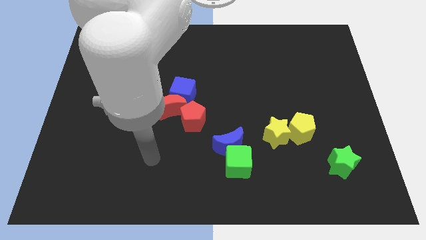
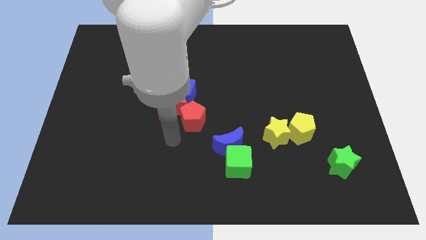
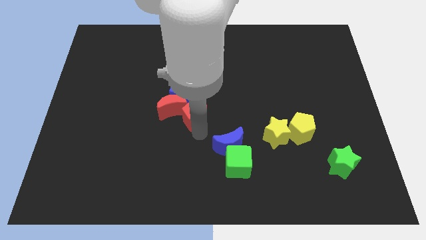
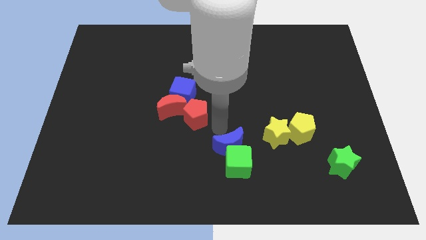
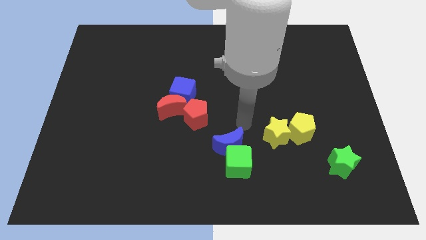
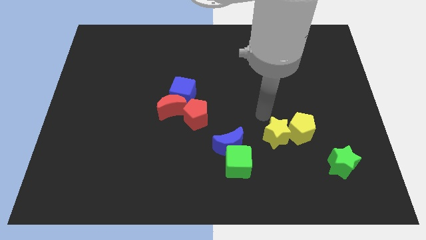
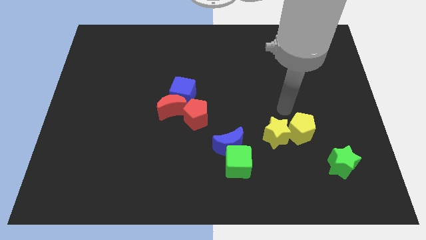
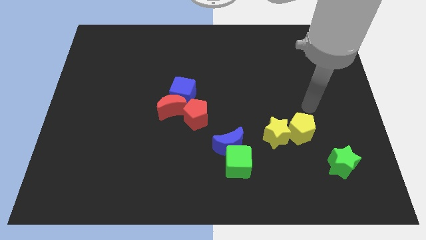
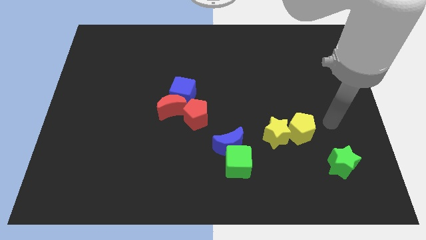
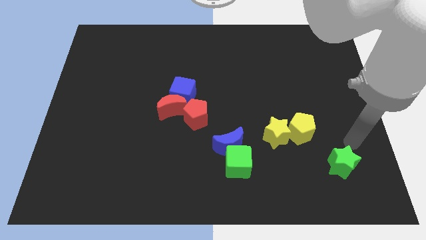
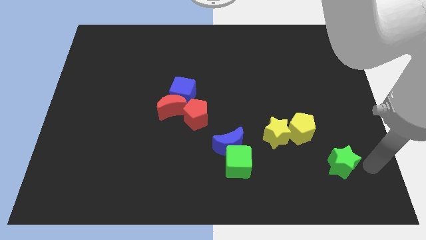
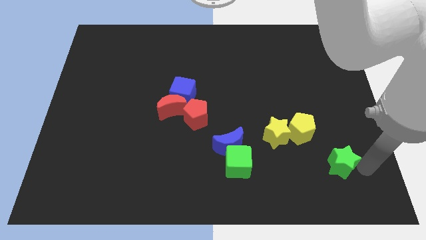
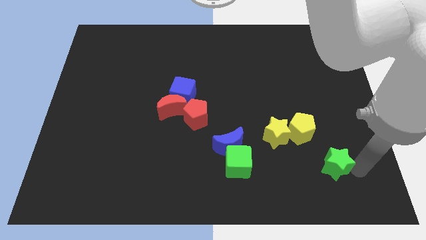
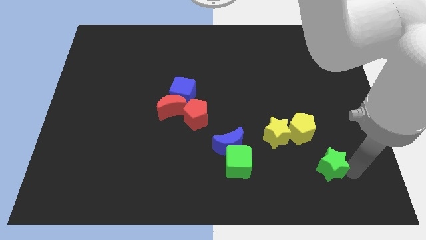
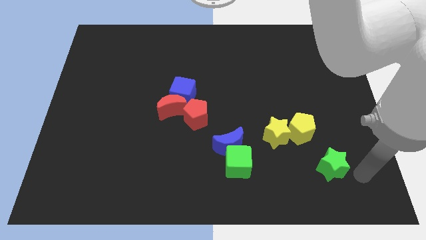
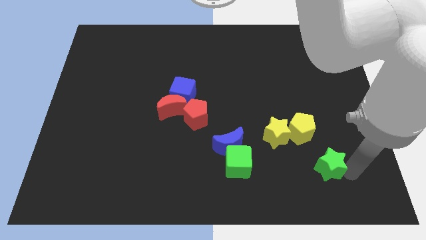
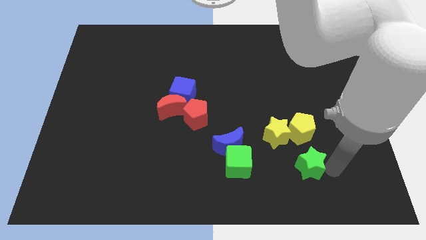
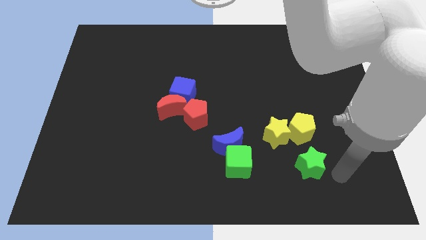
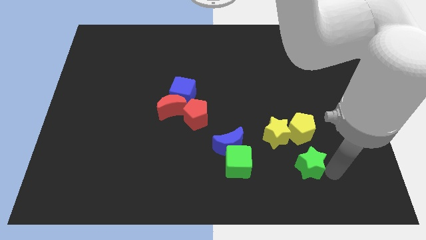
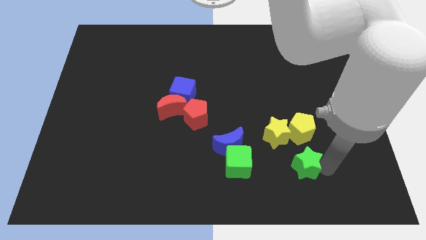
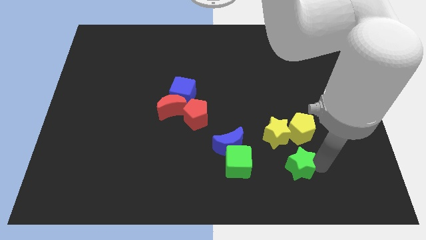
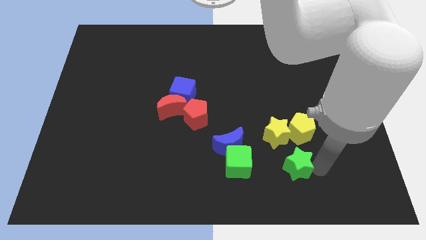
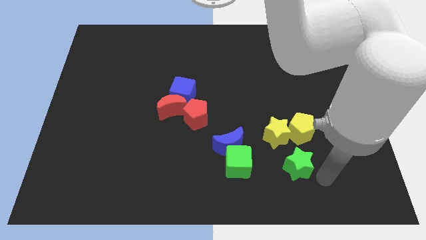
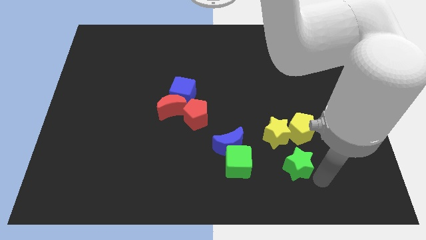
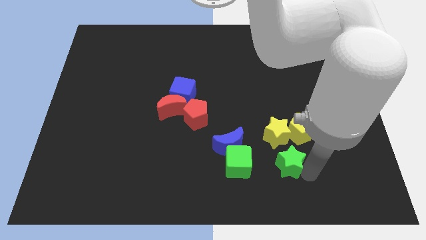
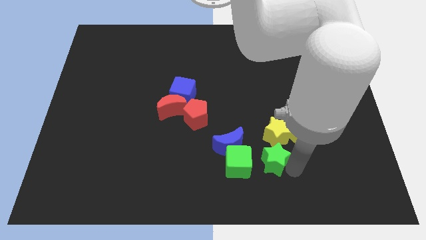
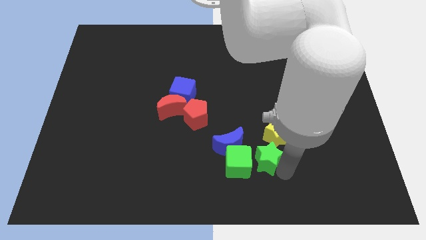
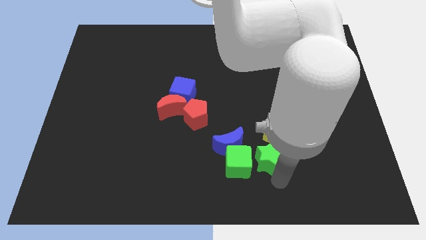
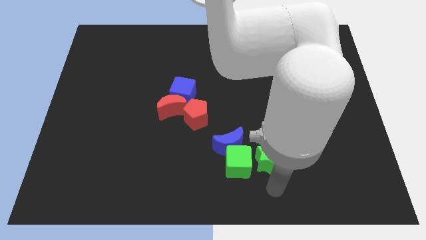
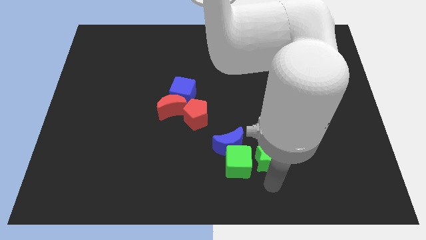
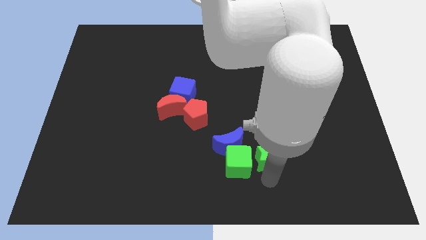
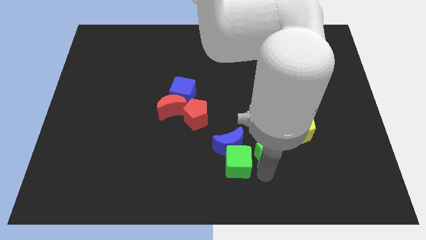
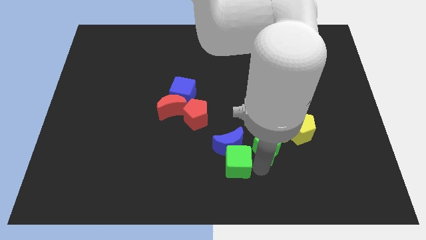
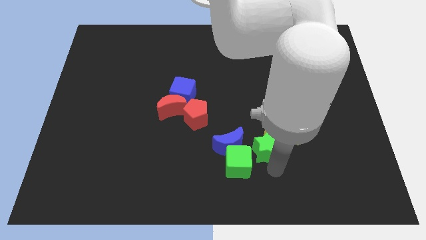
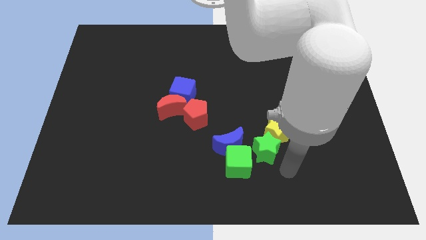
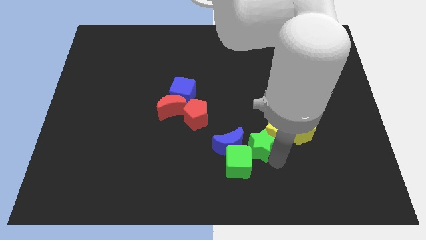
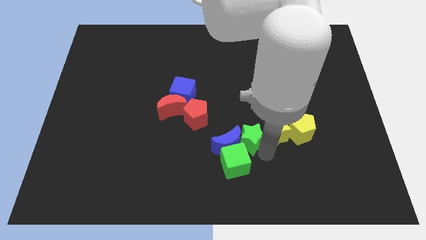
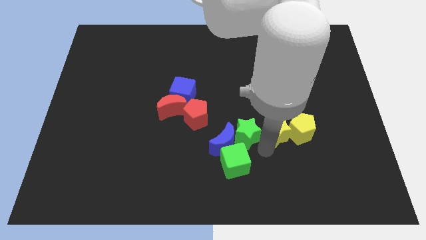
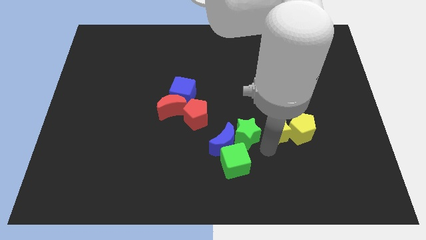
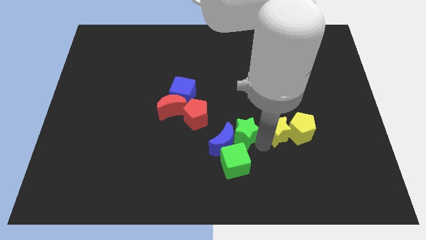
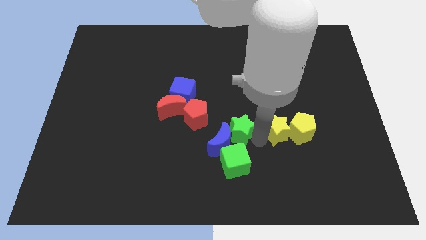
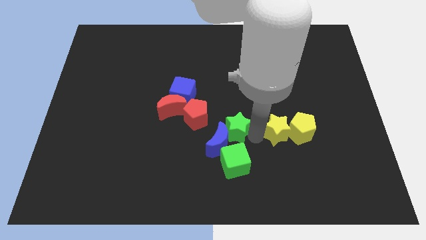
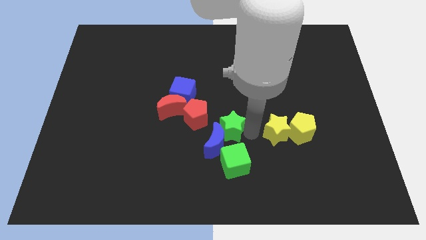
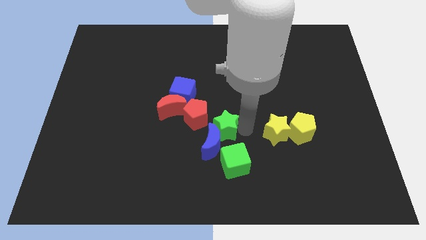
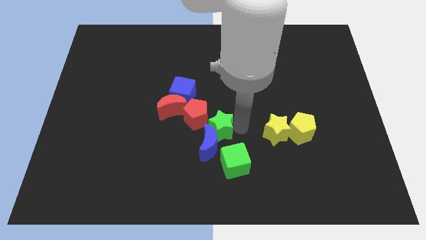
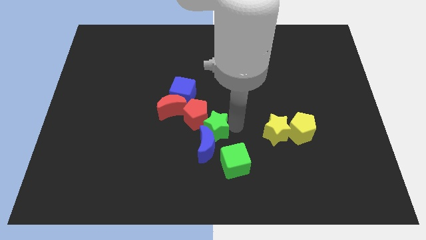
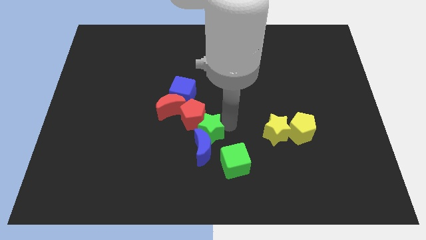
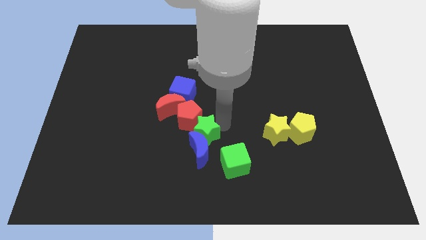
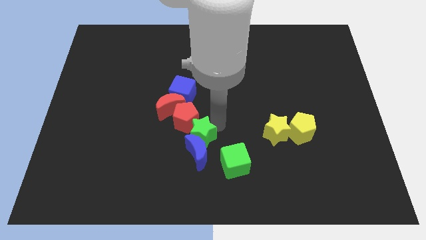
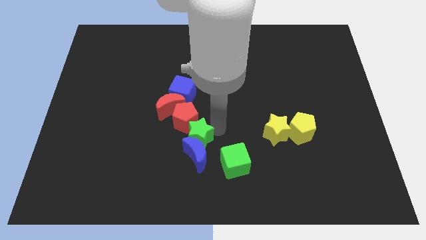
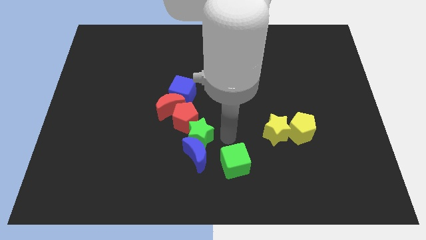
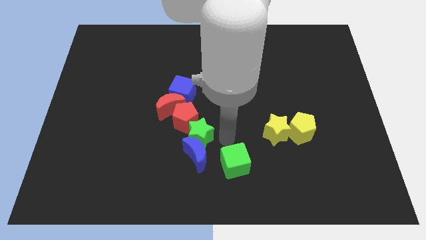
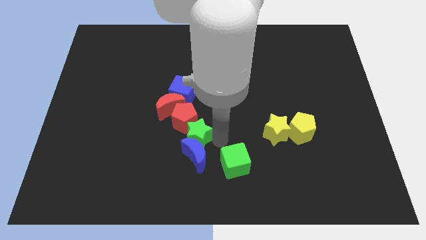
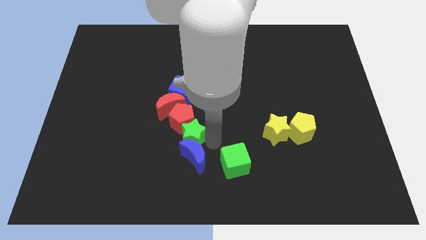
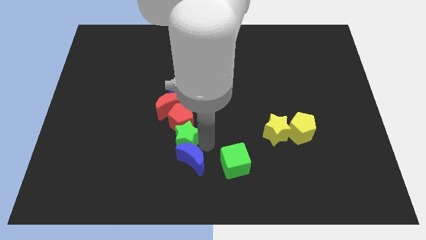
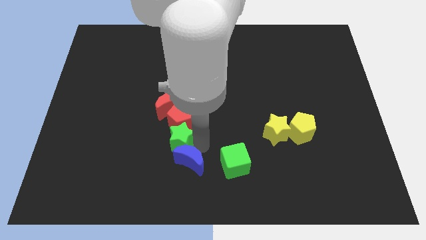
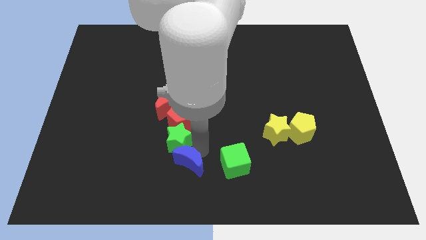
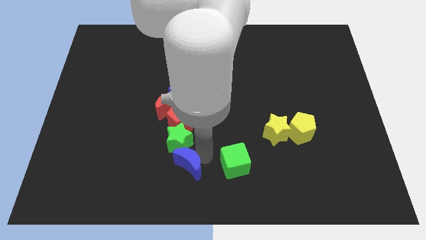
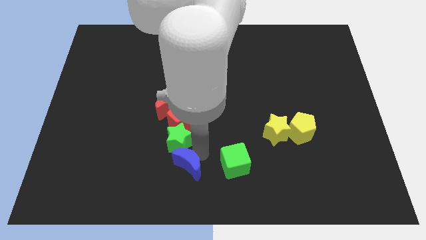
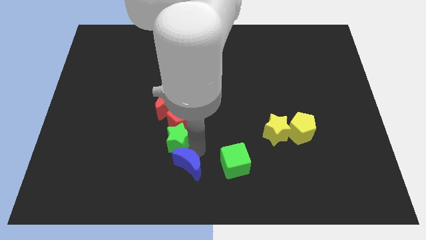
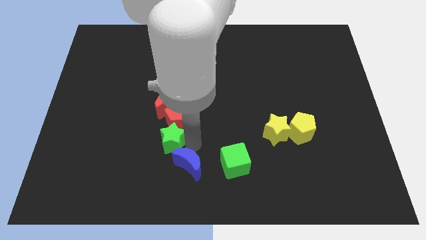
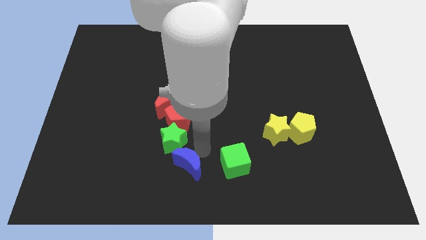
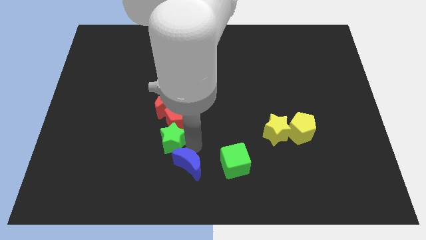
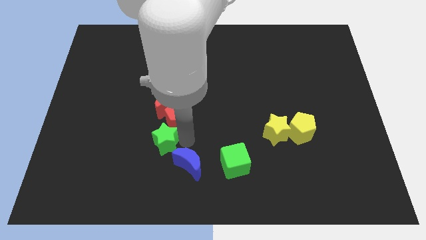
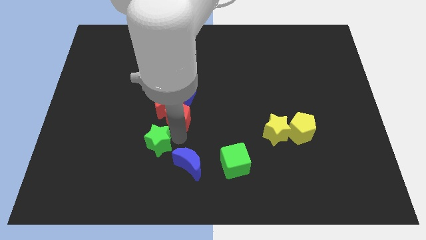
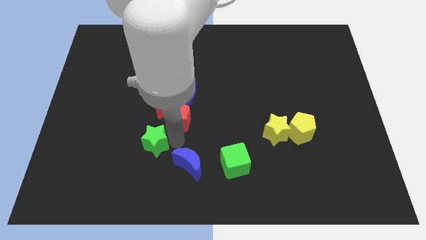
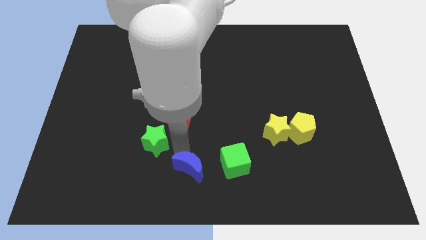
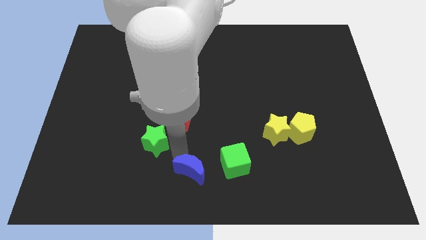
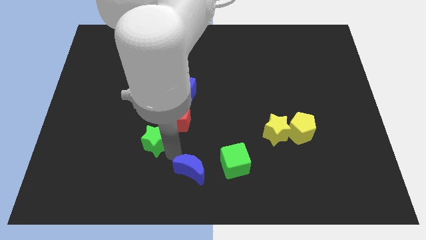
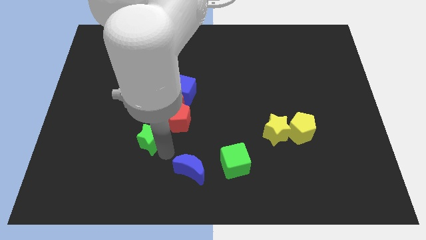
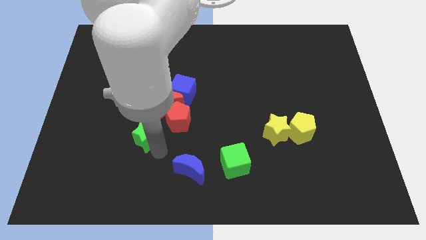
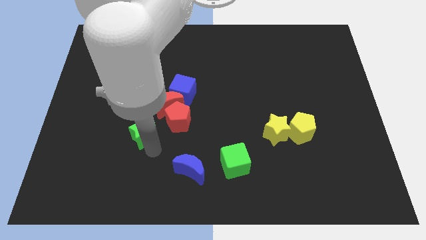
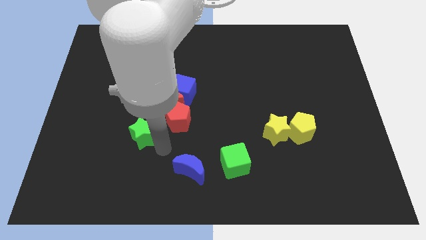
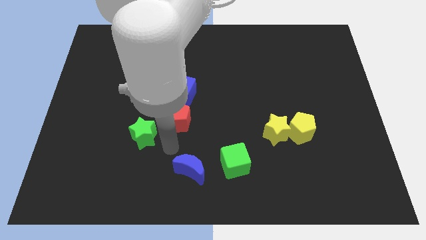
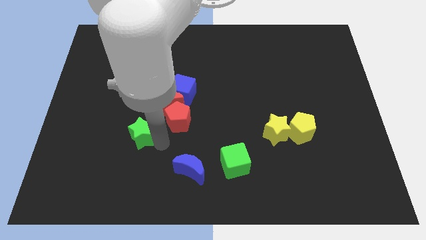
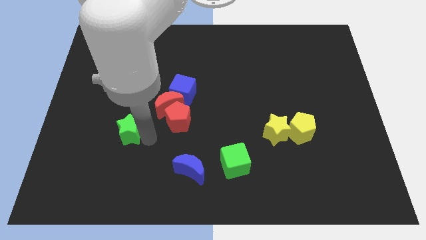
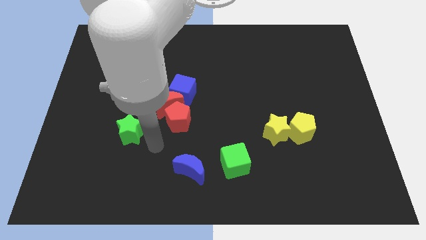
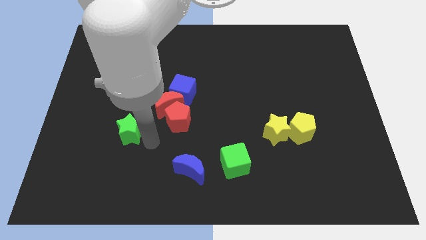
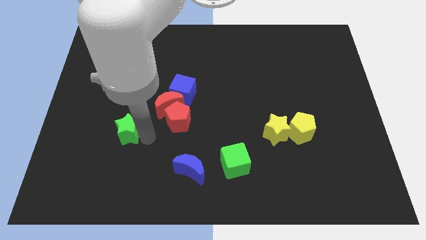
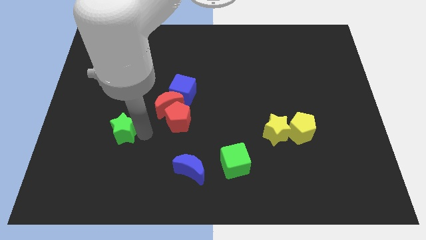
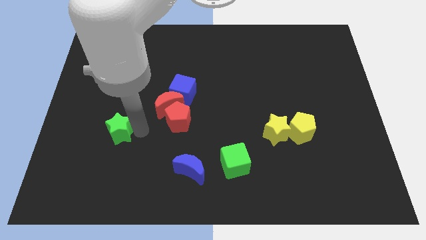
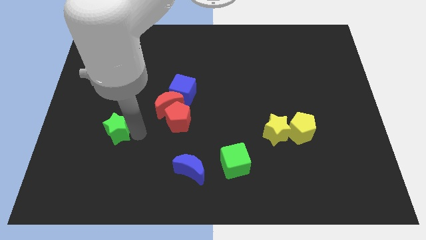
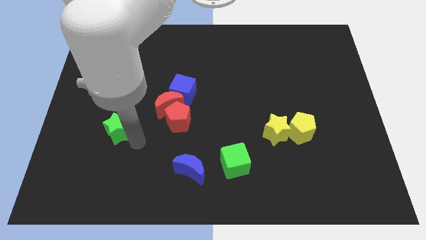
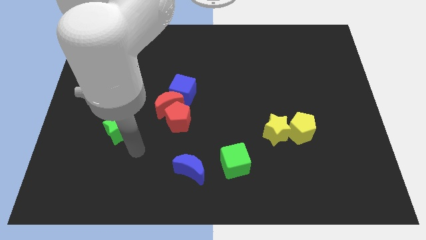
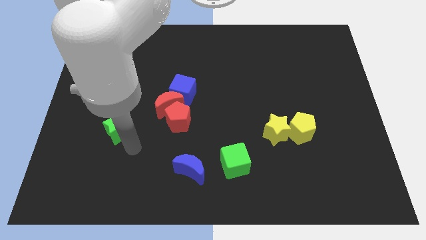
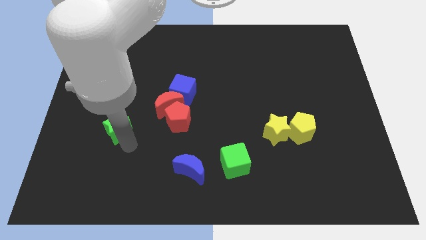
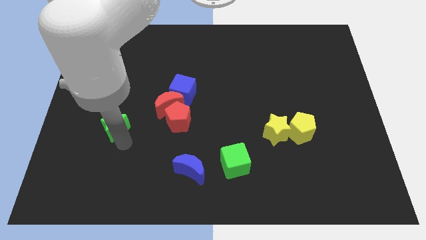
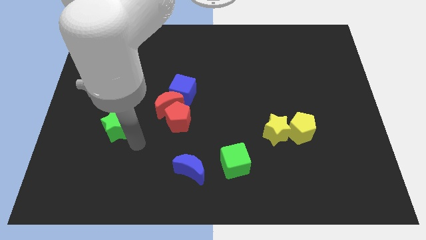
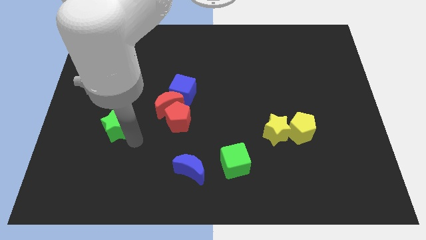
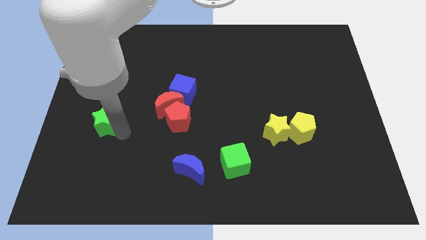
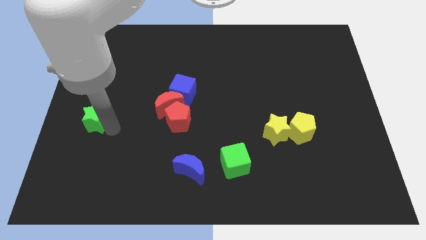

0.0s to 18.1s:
put the green star to the center left
